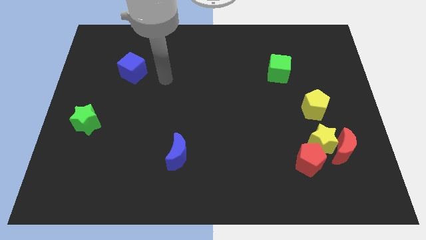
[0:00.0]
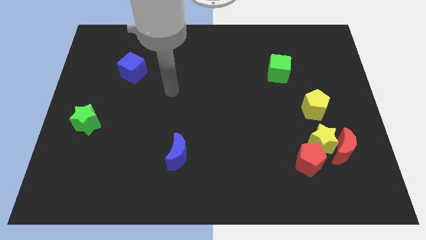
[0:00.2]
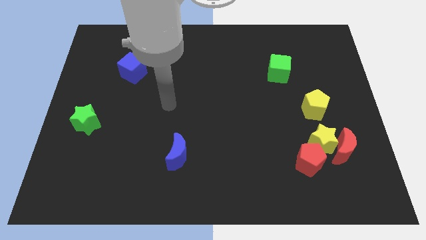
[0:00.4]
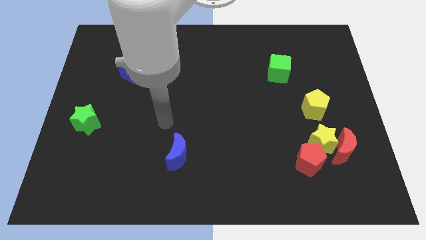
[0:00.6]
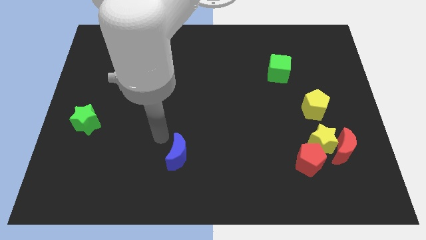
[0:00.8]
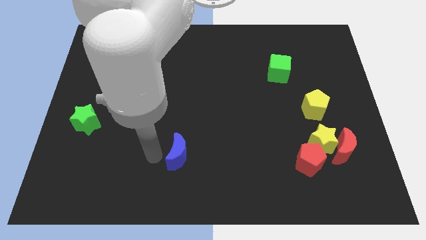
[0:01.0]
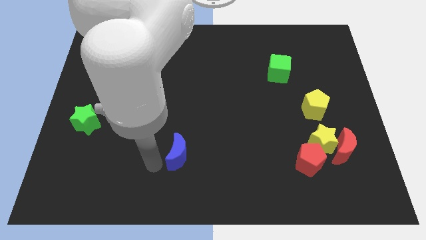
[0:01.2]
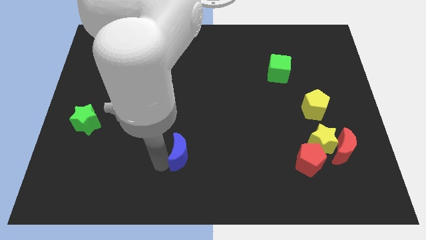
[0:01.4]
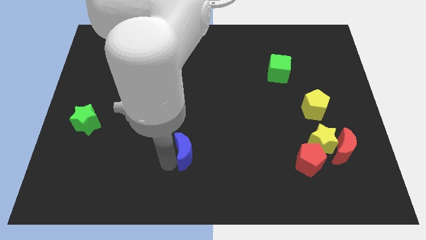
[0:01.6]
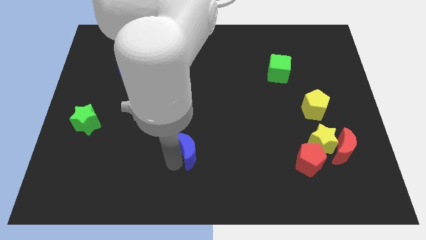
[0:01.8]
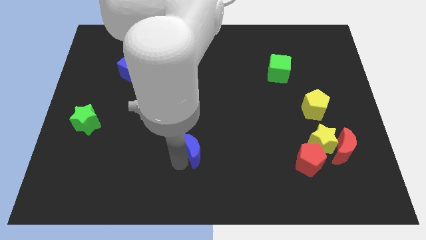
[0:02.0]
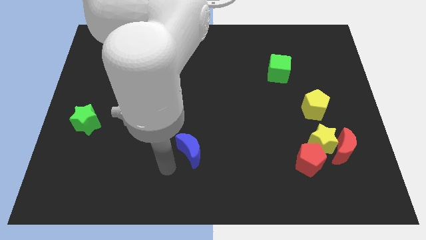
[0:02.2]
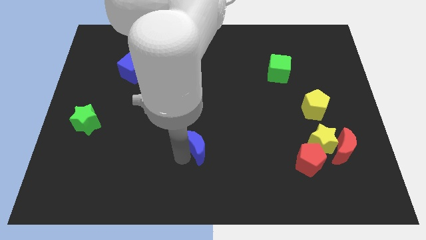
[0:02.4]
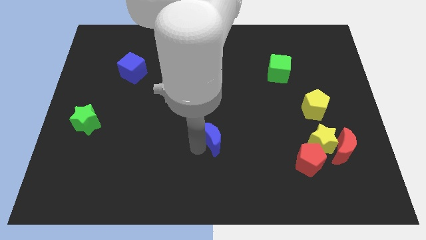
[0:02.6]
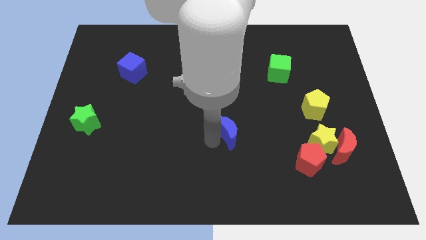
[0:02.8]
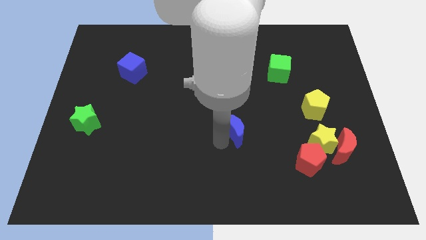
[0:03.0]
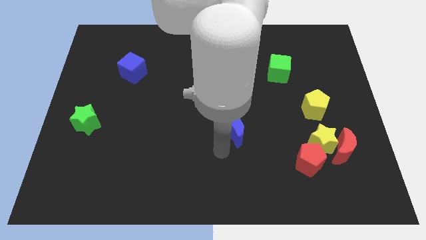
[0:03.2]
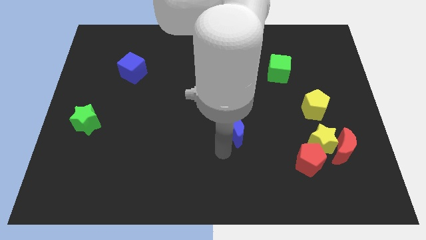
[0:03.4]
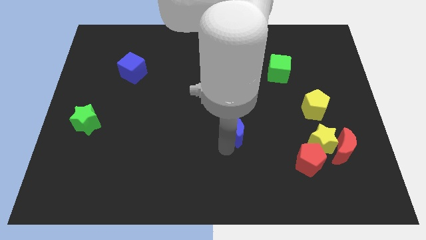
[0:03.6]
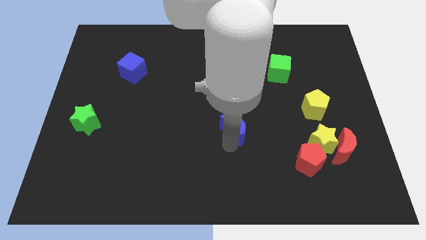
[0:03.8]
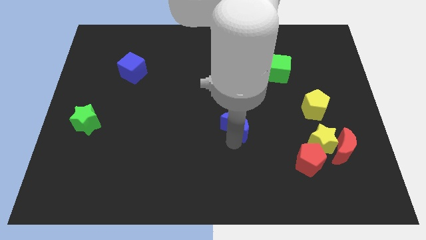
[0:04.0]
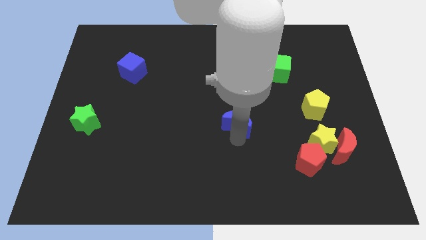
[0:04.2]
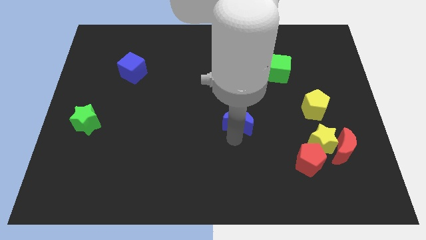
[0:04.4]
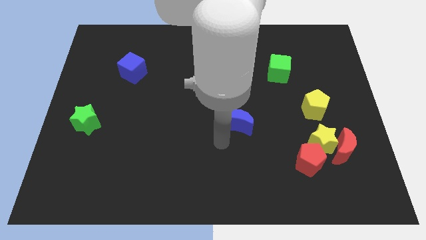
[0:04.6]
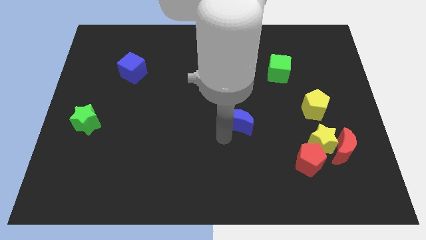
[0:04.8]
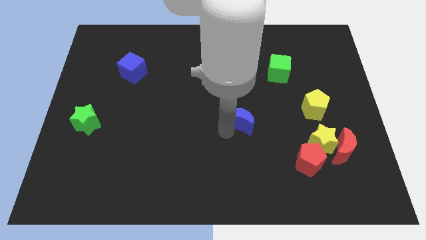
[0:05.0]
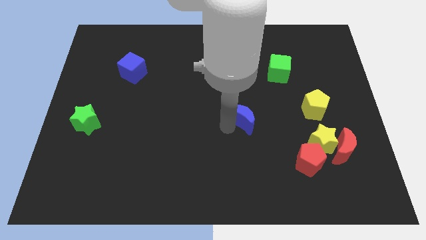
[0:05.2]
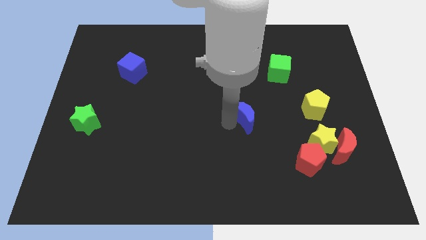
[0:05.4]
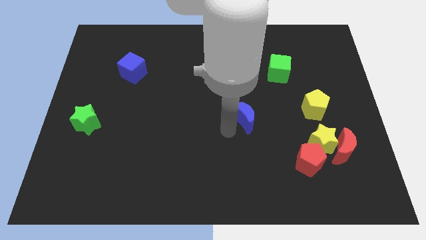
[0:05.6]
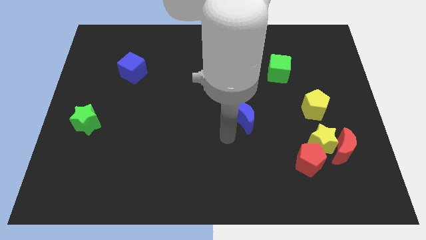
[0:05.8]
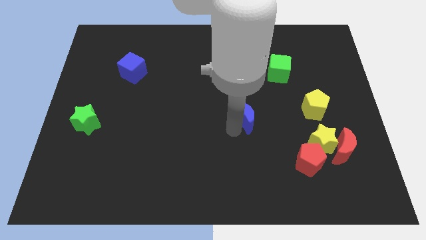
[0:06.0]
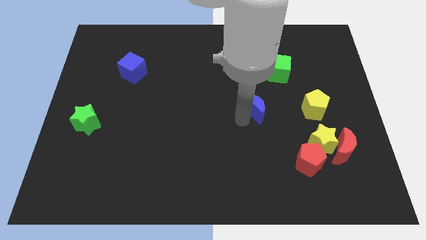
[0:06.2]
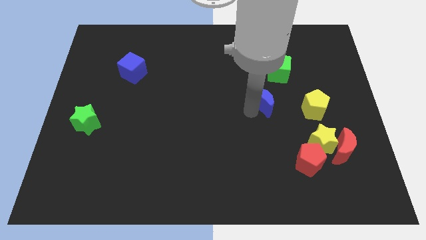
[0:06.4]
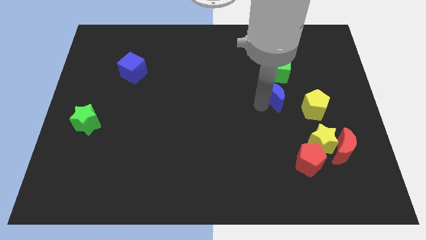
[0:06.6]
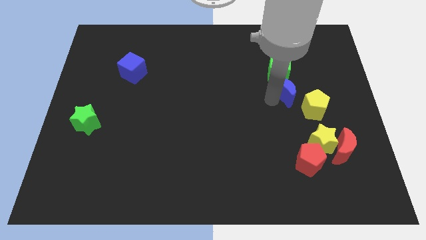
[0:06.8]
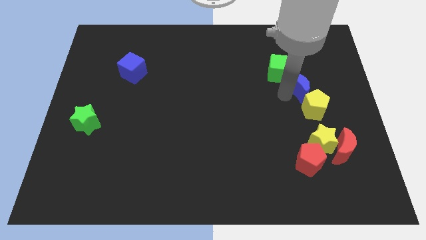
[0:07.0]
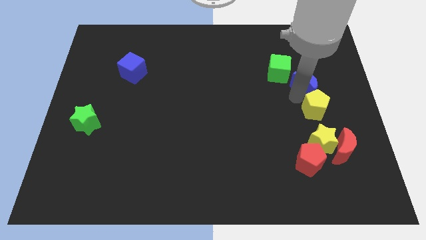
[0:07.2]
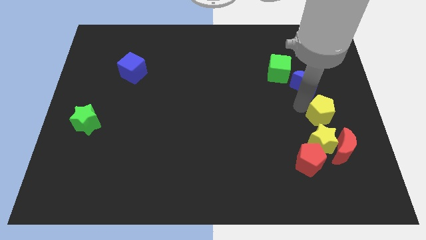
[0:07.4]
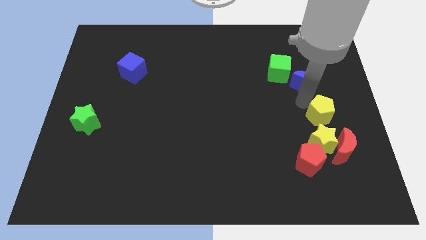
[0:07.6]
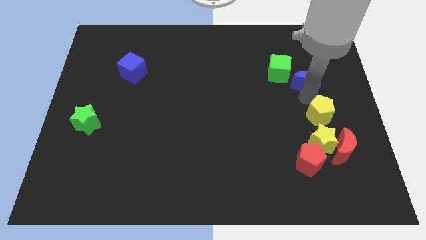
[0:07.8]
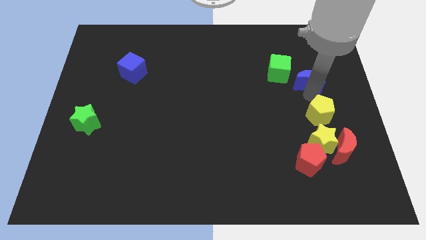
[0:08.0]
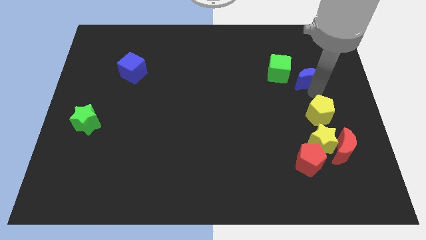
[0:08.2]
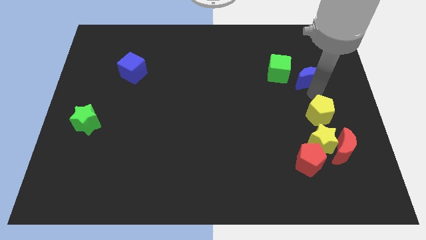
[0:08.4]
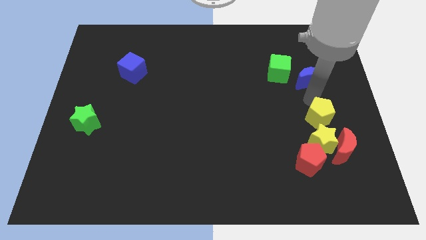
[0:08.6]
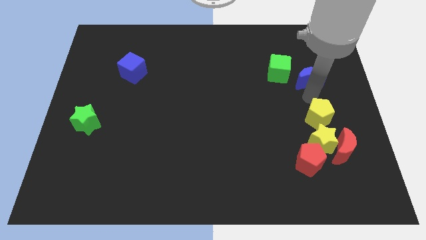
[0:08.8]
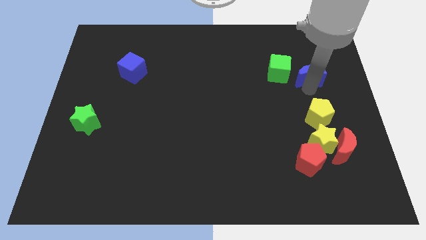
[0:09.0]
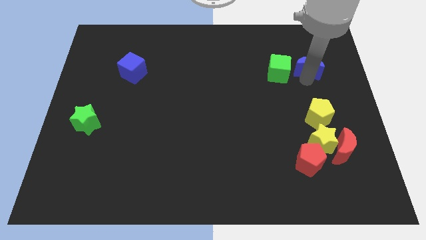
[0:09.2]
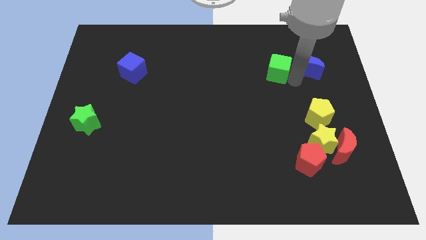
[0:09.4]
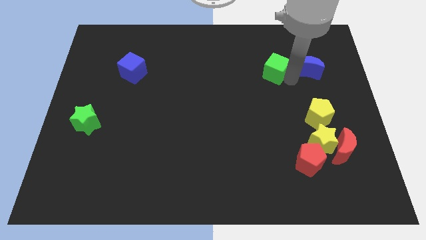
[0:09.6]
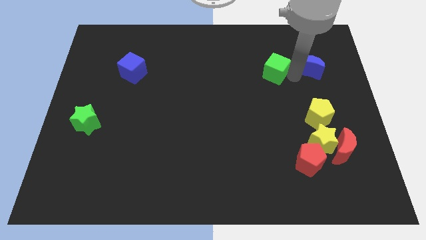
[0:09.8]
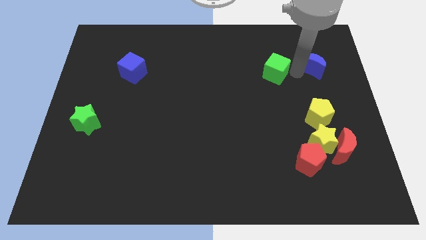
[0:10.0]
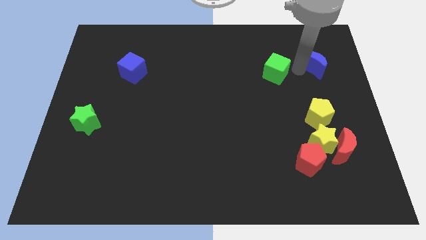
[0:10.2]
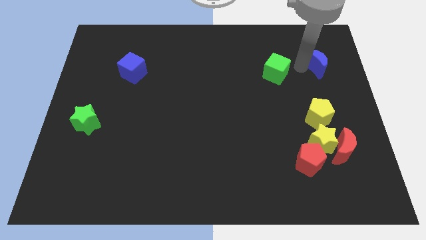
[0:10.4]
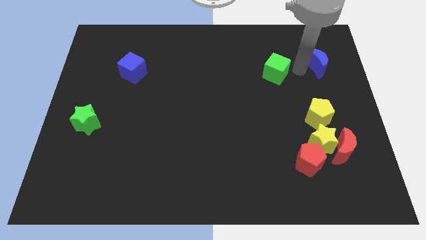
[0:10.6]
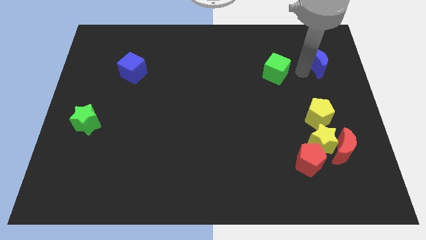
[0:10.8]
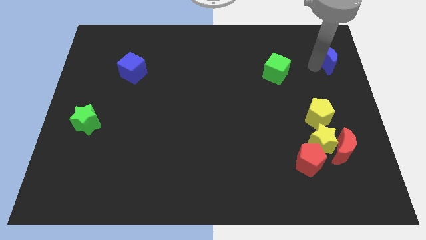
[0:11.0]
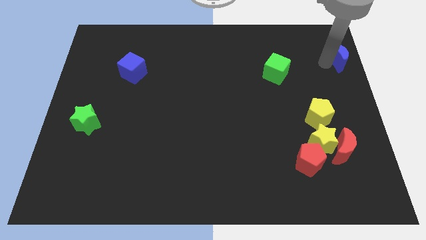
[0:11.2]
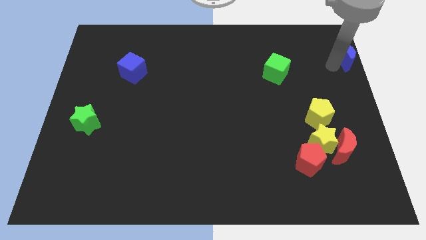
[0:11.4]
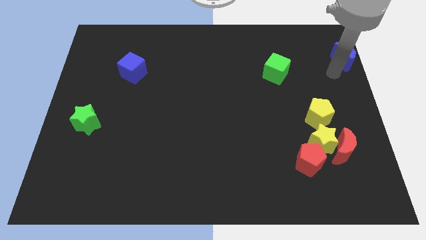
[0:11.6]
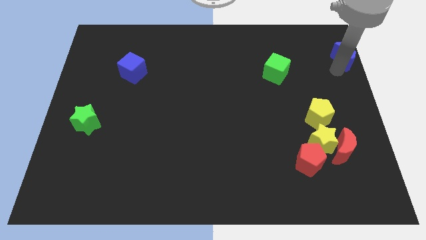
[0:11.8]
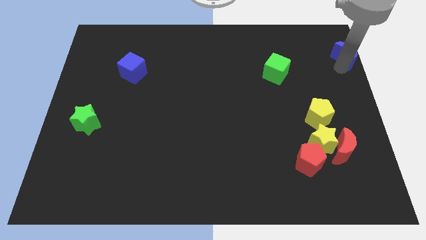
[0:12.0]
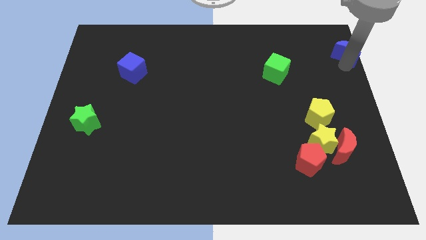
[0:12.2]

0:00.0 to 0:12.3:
put the blue moon to the top right
